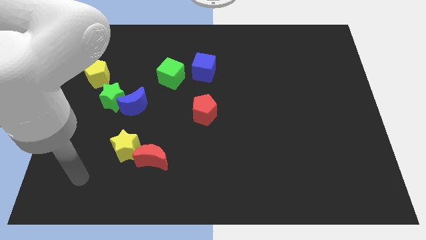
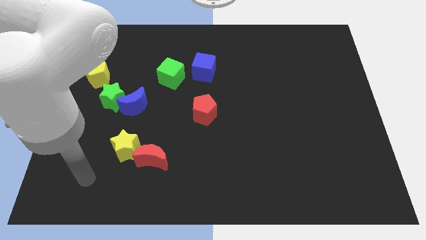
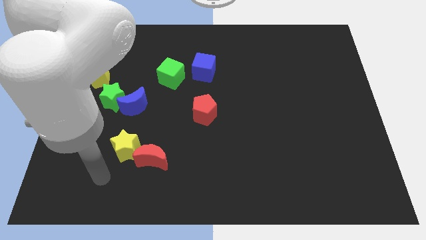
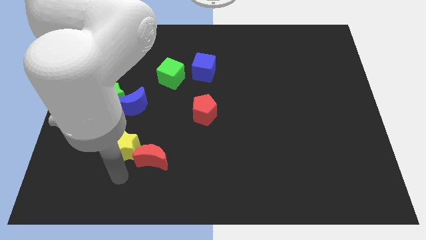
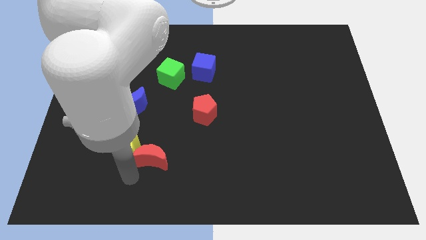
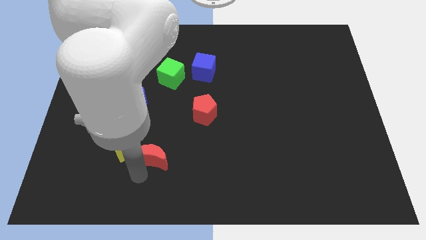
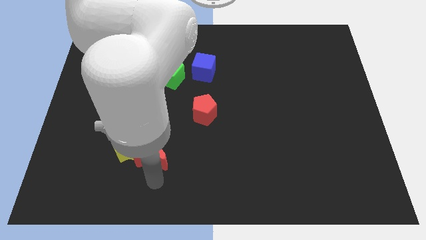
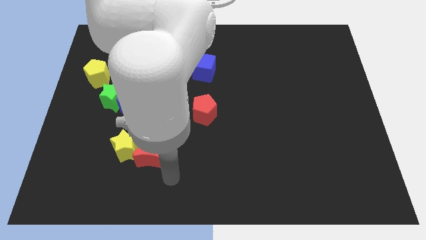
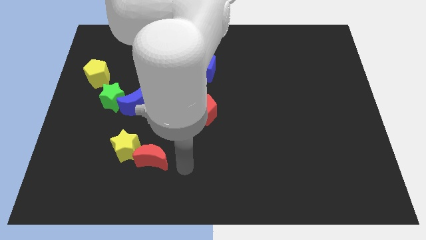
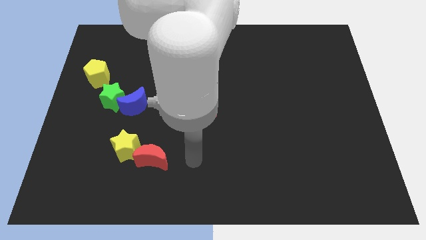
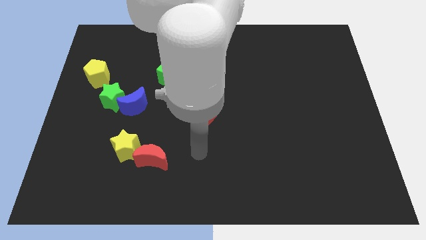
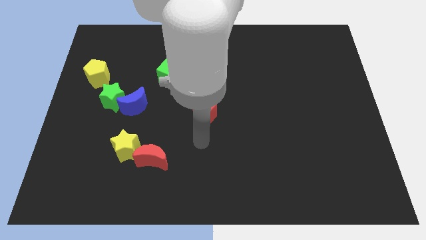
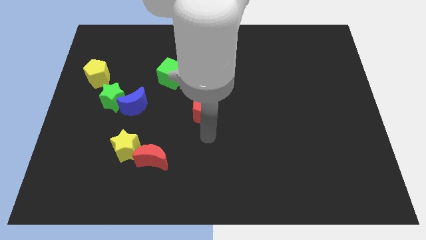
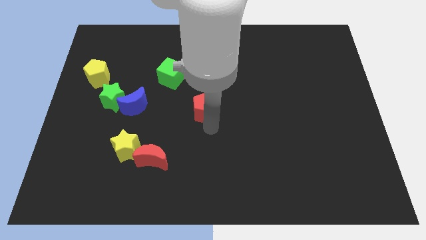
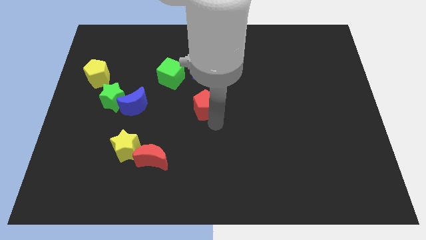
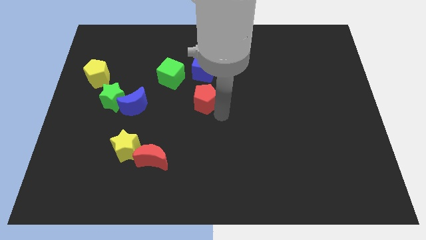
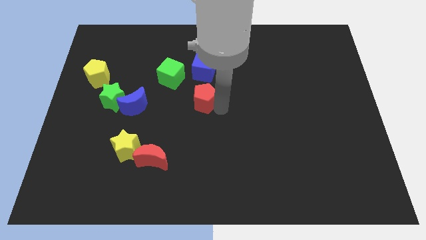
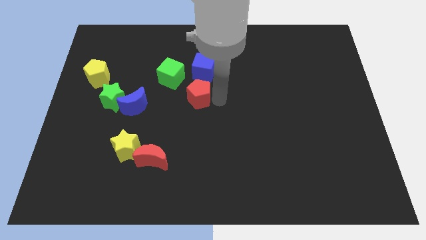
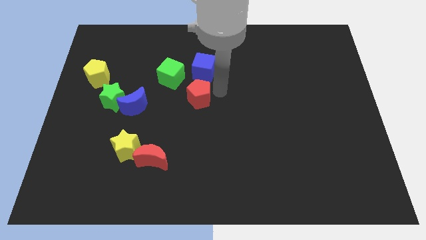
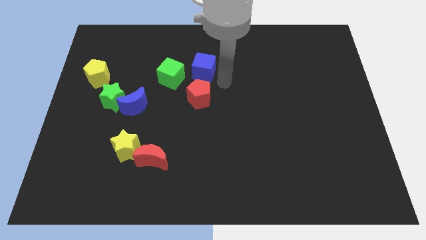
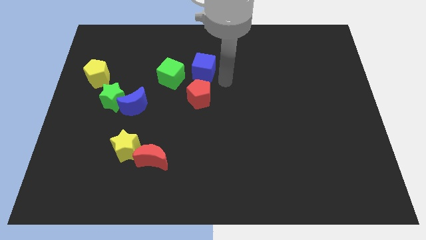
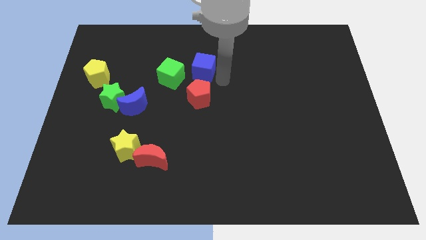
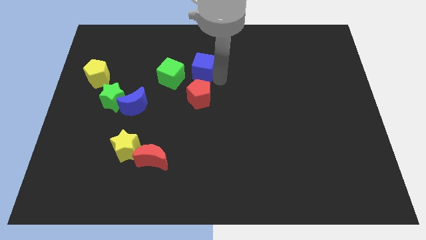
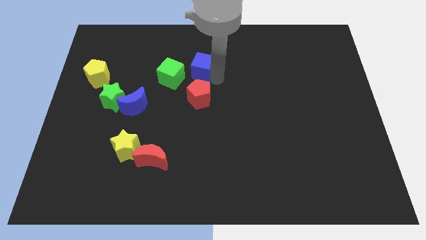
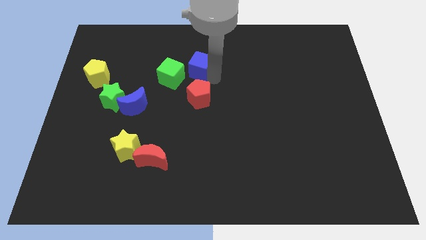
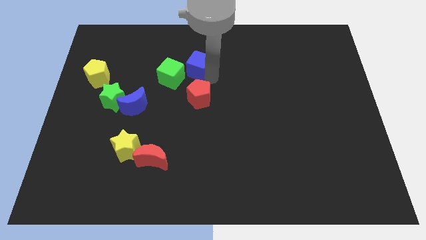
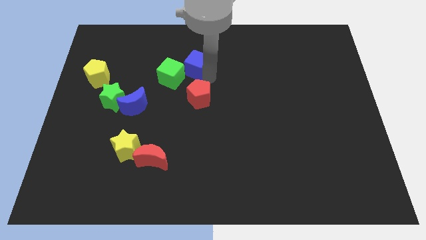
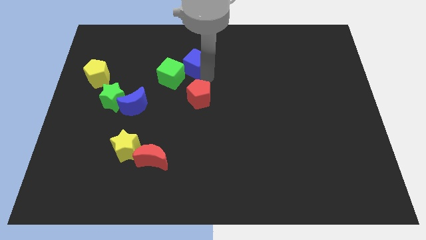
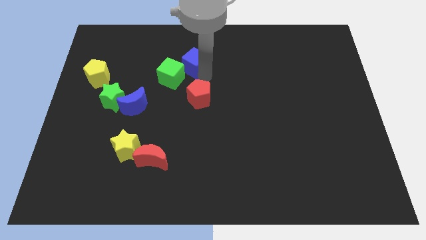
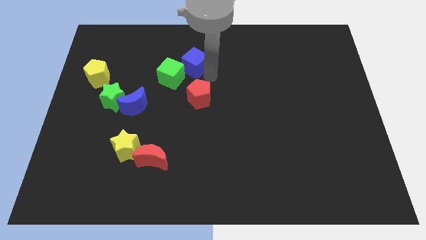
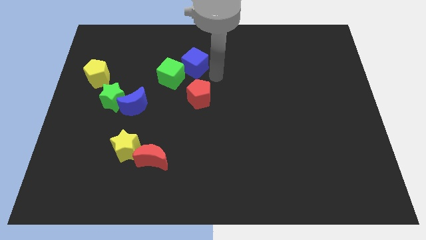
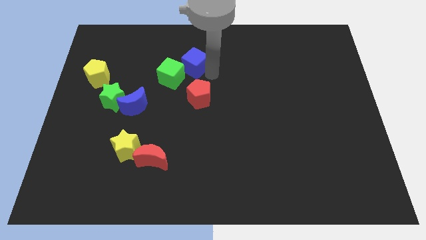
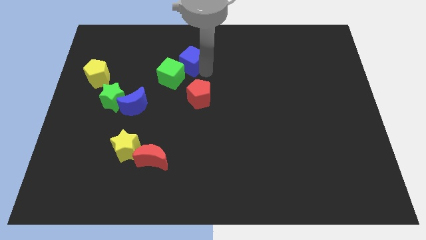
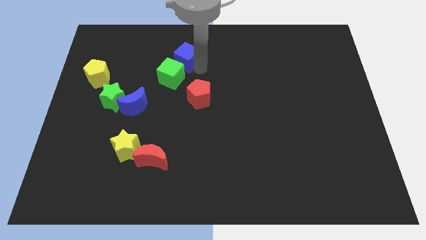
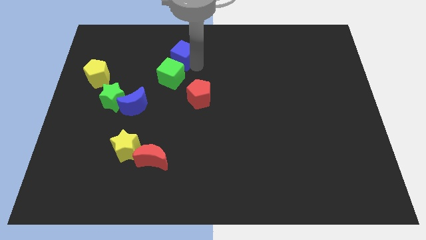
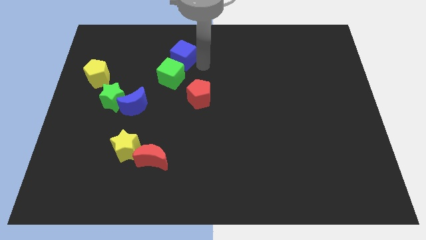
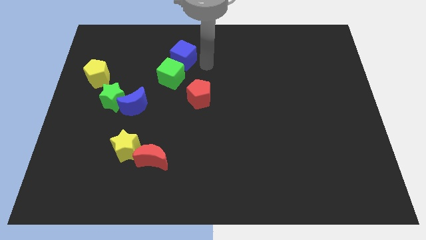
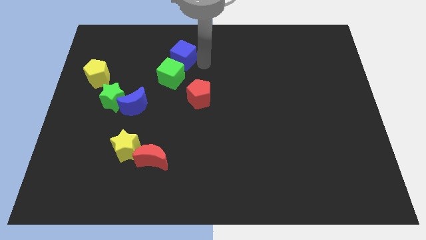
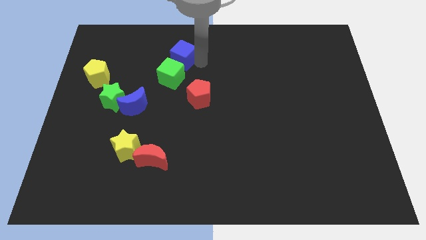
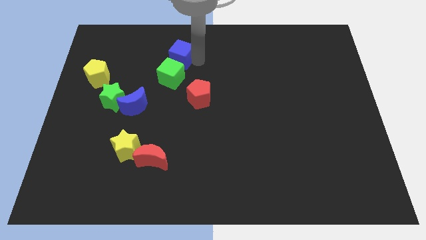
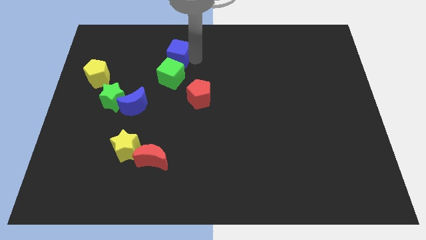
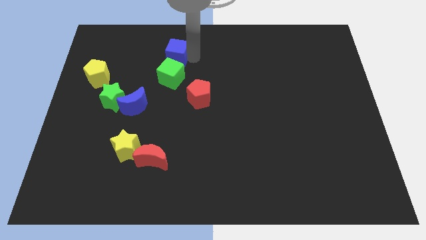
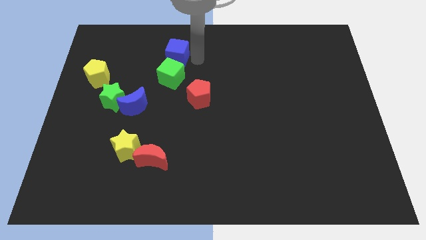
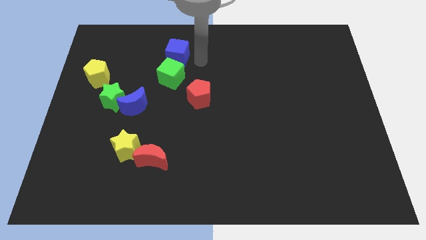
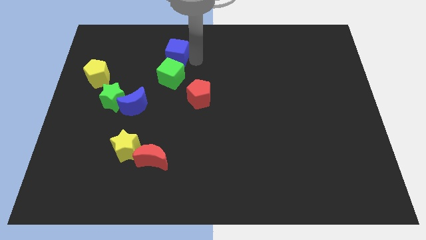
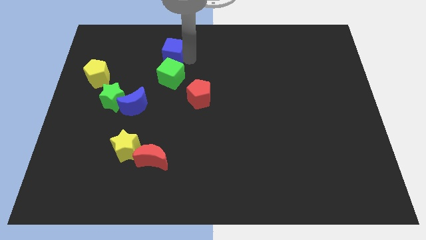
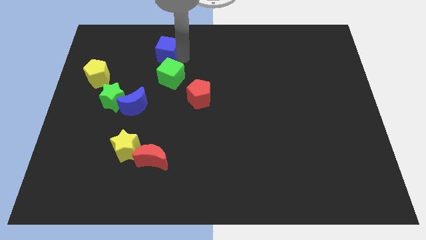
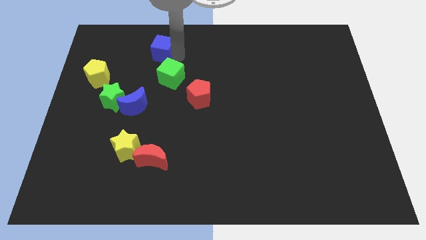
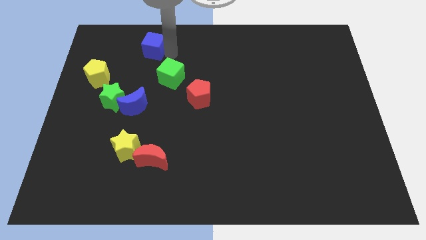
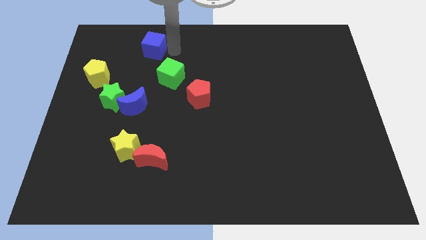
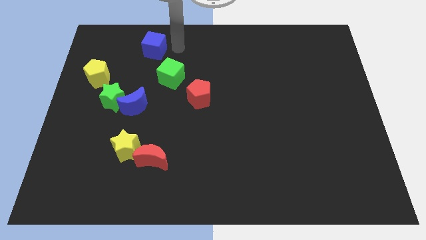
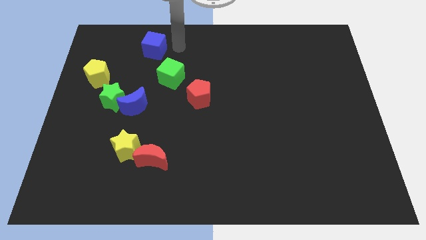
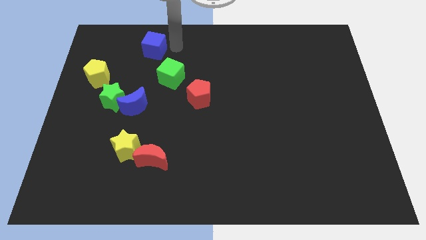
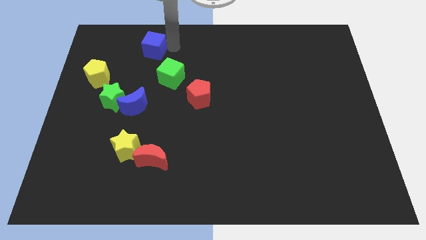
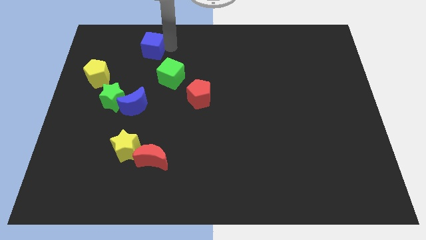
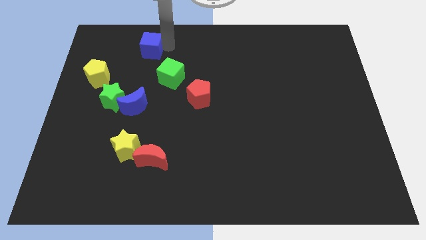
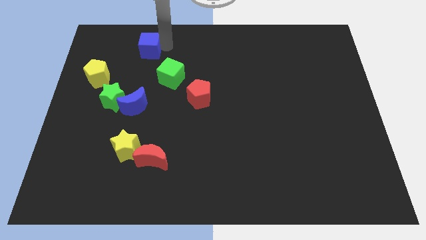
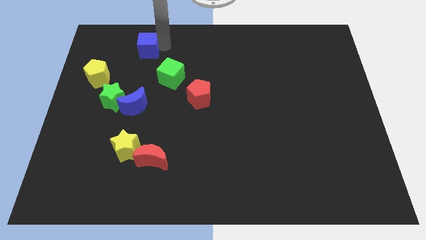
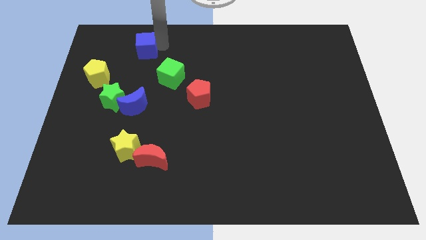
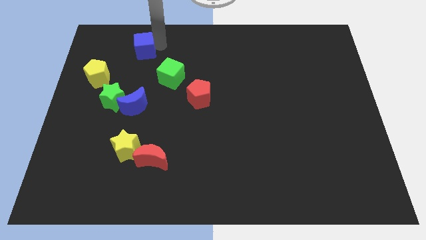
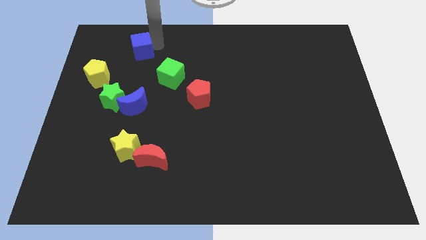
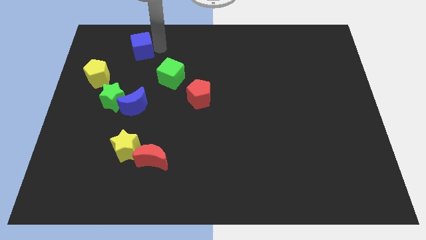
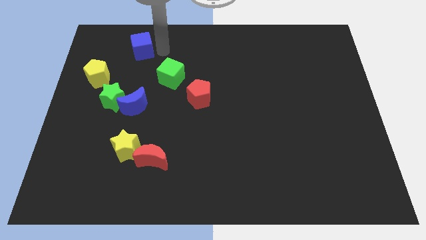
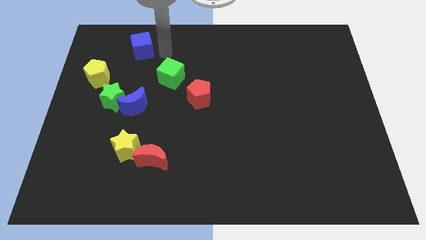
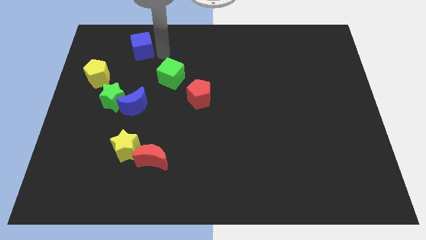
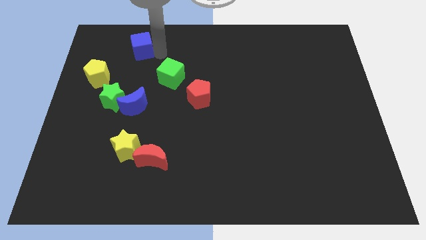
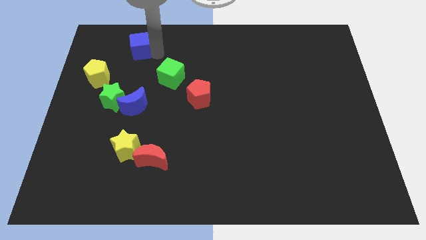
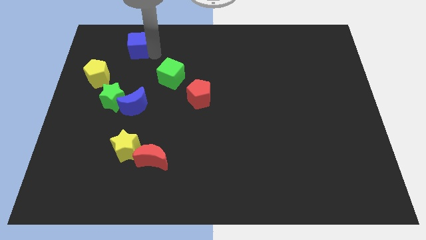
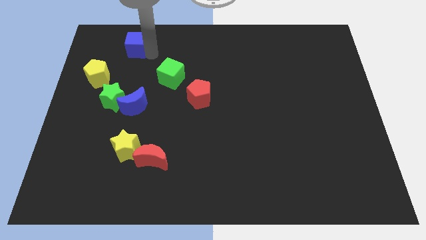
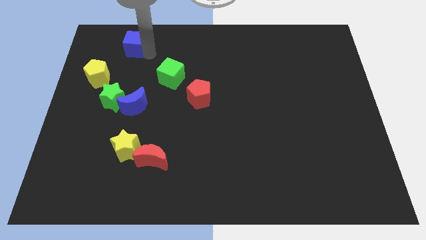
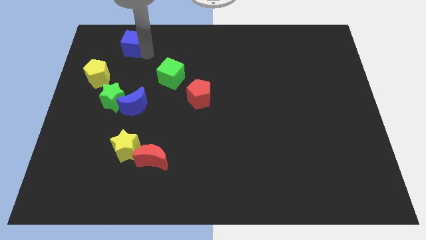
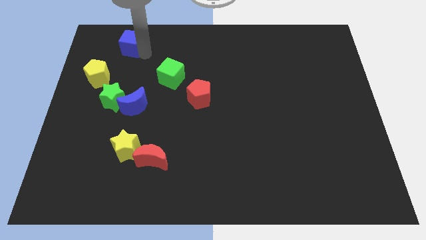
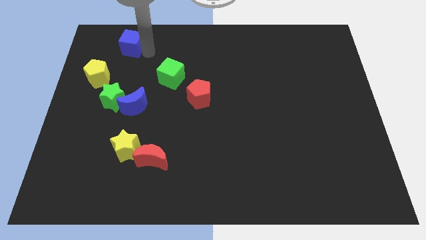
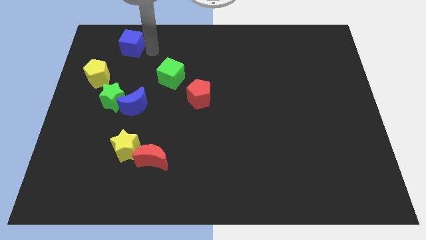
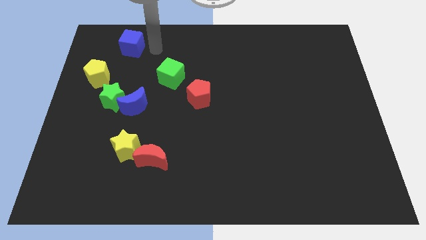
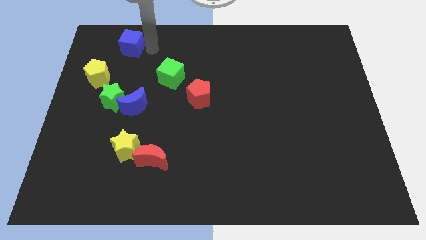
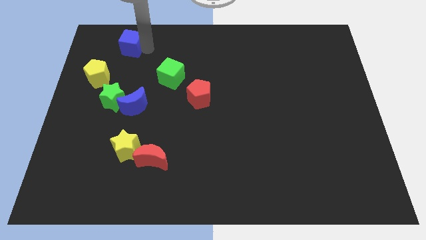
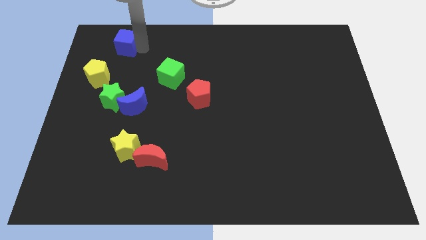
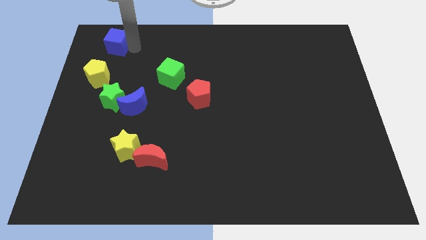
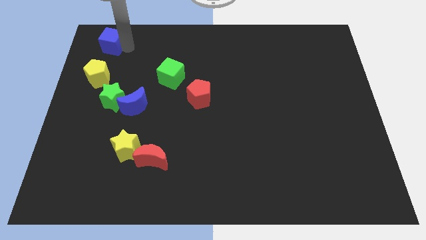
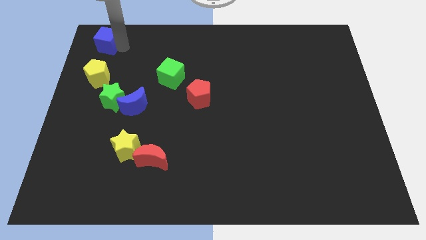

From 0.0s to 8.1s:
put the blue cube to the top left corner
